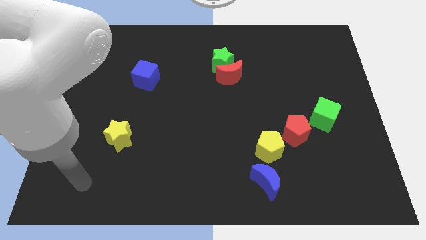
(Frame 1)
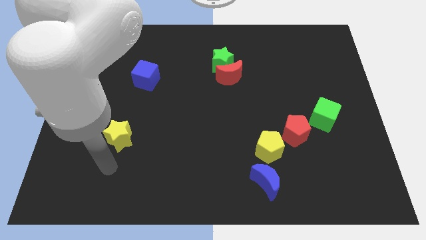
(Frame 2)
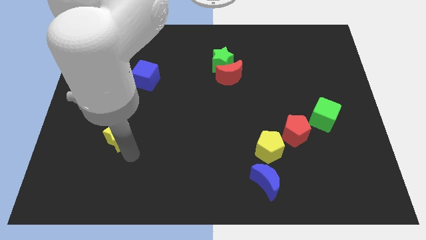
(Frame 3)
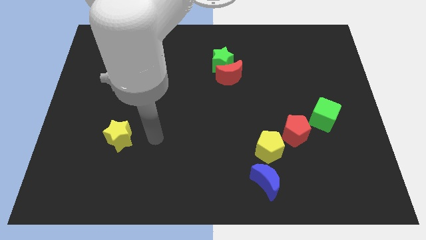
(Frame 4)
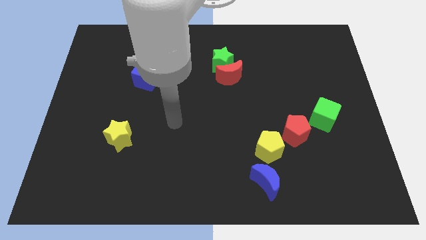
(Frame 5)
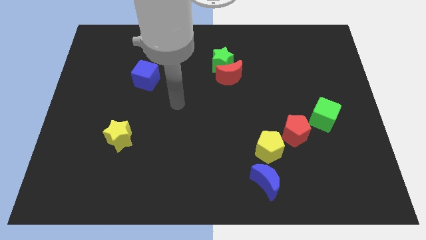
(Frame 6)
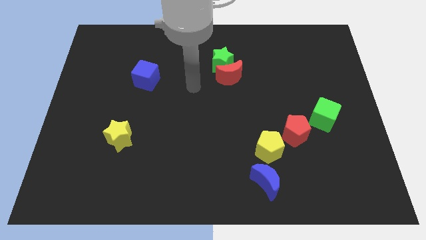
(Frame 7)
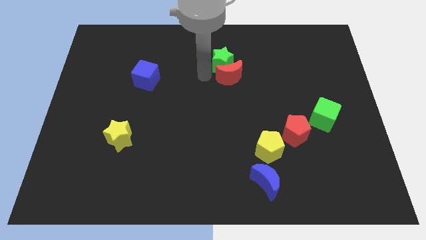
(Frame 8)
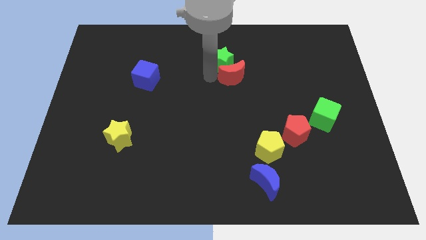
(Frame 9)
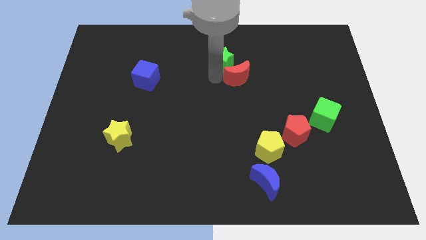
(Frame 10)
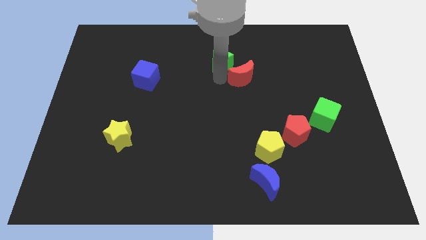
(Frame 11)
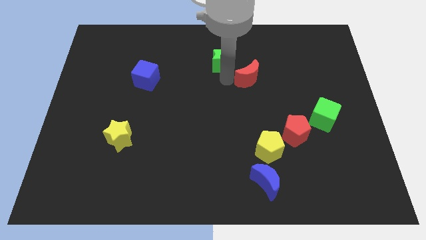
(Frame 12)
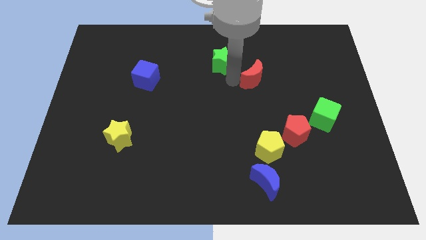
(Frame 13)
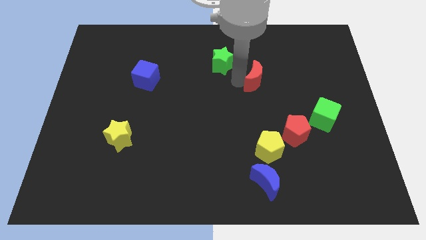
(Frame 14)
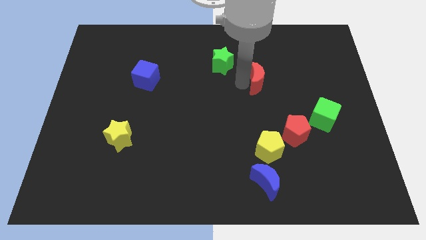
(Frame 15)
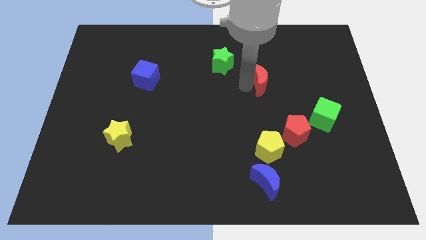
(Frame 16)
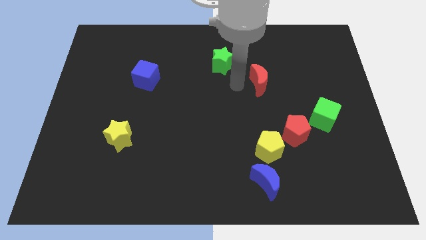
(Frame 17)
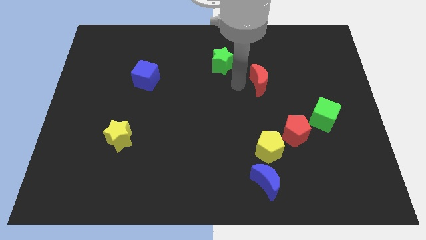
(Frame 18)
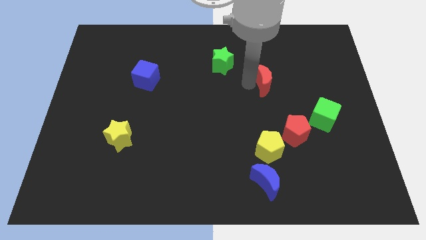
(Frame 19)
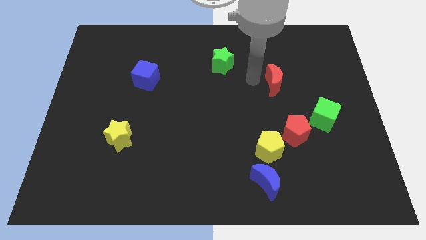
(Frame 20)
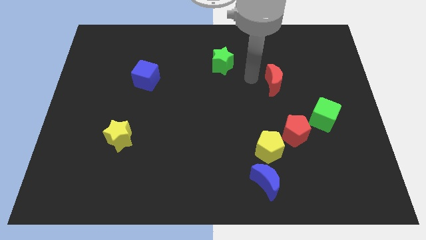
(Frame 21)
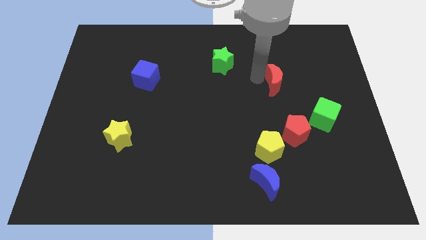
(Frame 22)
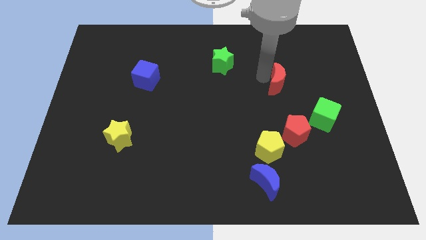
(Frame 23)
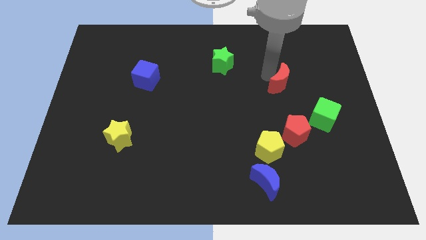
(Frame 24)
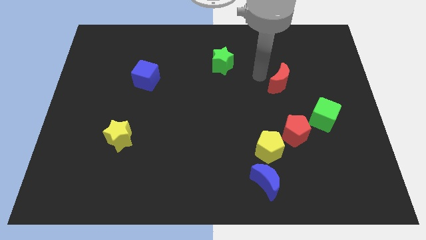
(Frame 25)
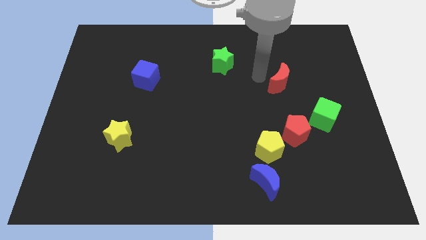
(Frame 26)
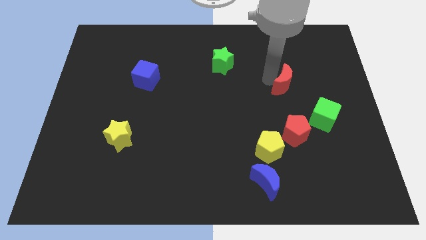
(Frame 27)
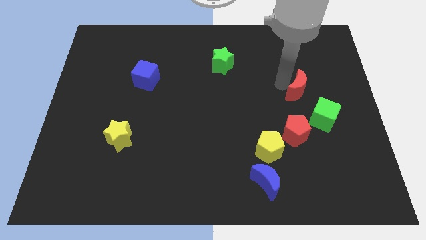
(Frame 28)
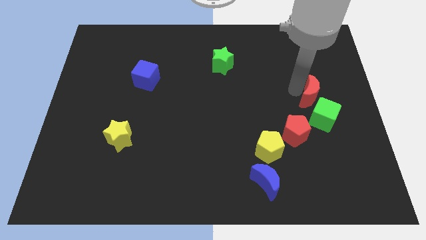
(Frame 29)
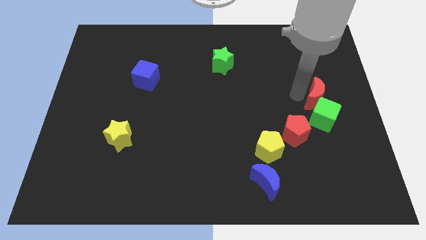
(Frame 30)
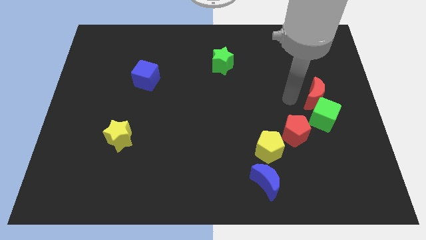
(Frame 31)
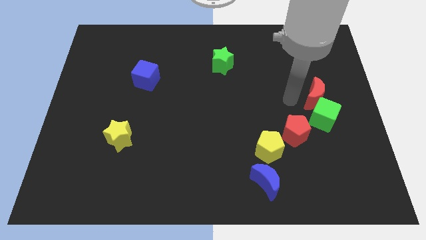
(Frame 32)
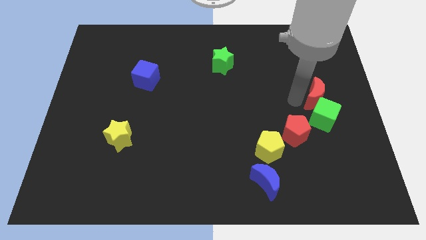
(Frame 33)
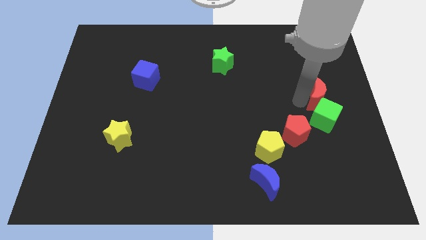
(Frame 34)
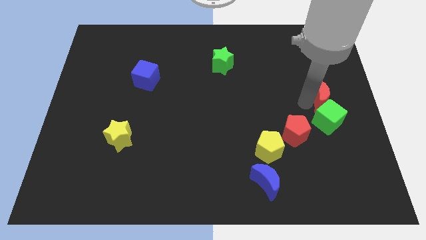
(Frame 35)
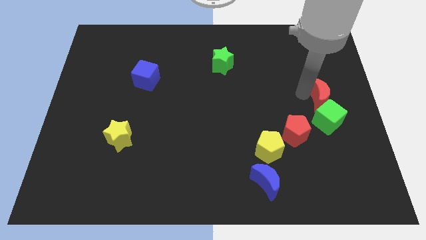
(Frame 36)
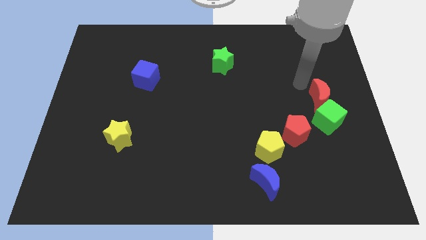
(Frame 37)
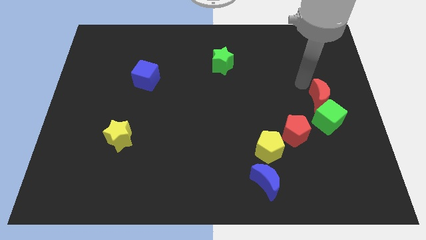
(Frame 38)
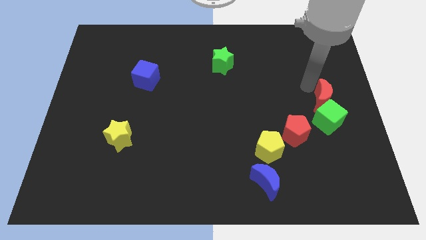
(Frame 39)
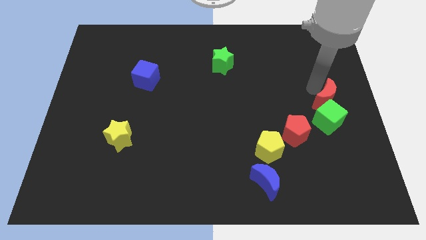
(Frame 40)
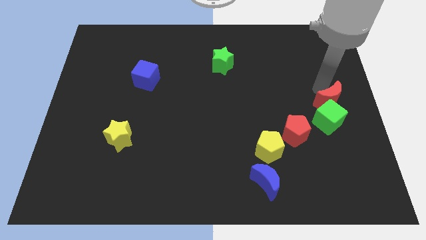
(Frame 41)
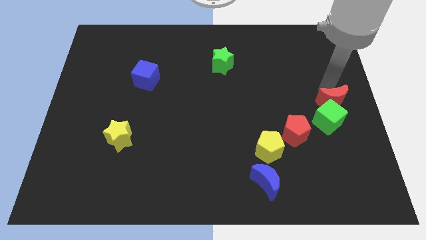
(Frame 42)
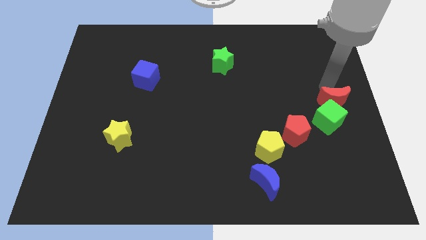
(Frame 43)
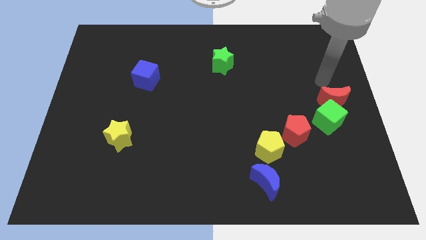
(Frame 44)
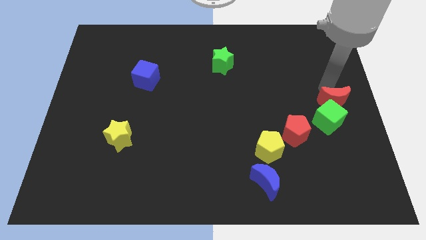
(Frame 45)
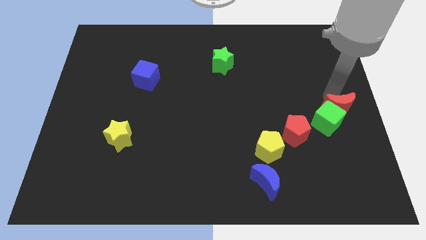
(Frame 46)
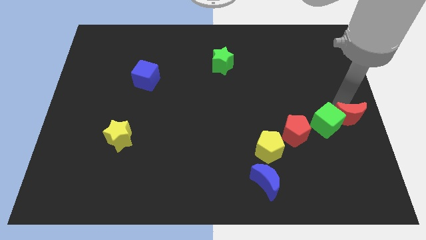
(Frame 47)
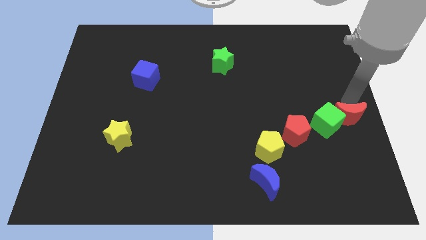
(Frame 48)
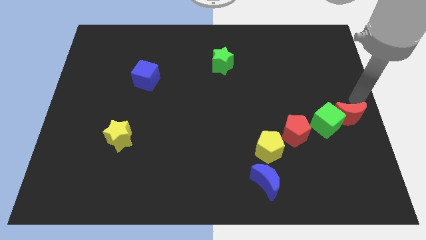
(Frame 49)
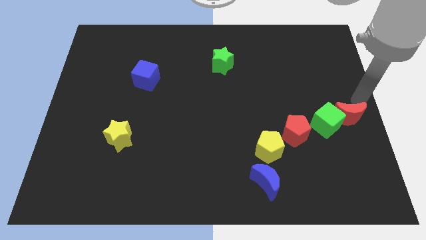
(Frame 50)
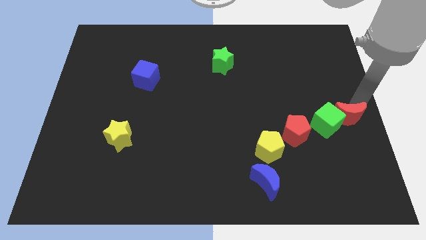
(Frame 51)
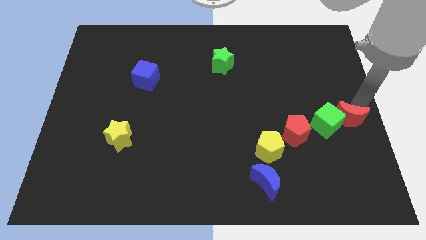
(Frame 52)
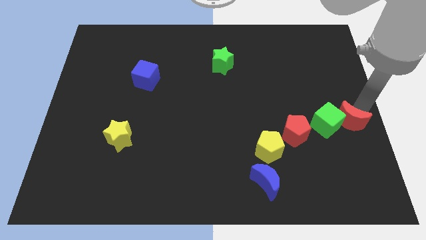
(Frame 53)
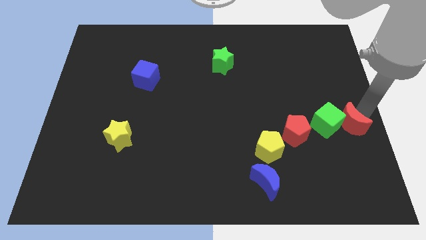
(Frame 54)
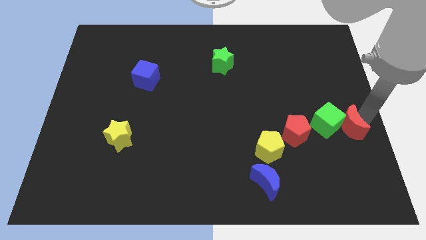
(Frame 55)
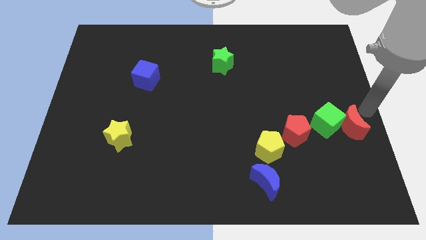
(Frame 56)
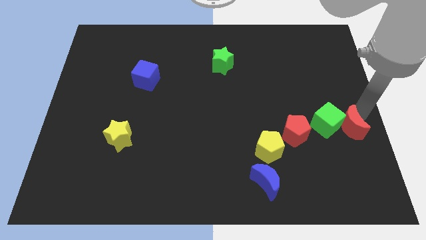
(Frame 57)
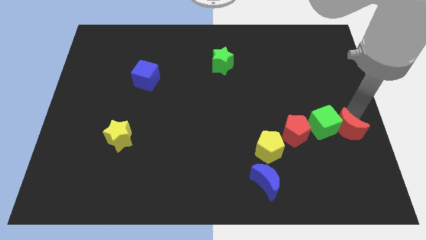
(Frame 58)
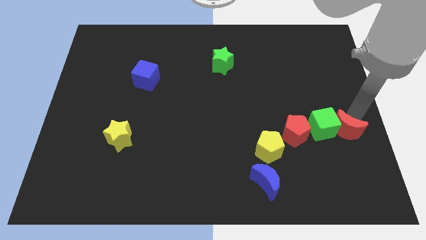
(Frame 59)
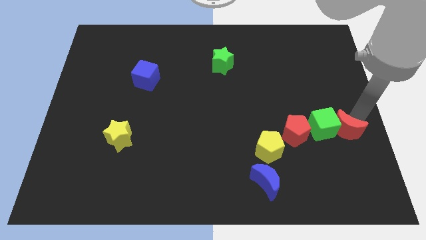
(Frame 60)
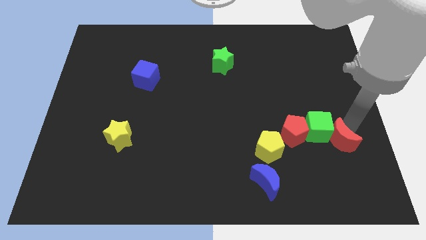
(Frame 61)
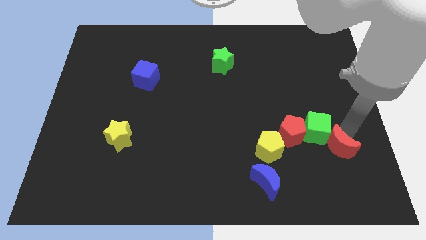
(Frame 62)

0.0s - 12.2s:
move the red moon to the bottom right of the red pentagon
